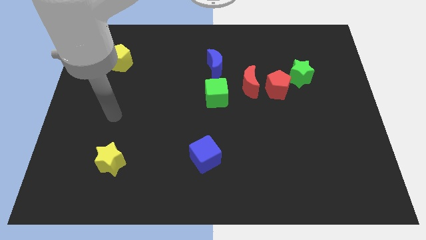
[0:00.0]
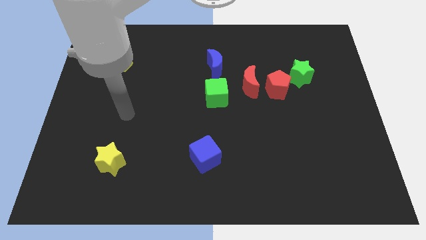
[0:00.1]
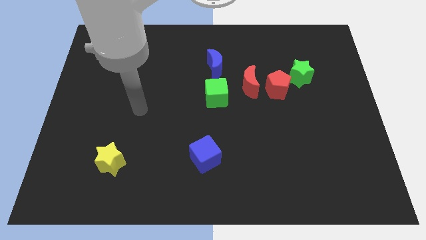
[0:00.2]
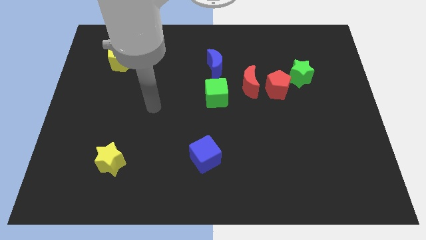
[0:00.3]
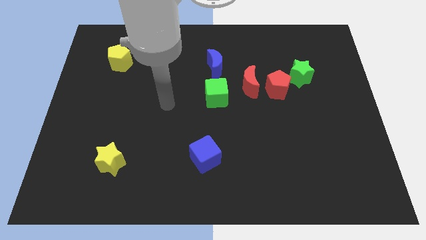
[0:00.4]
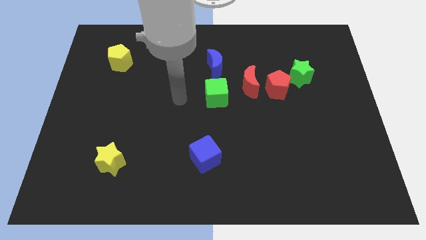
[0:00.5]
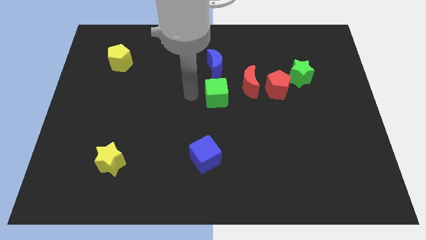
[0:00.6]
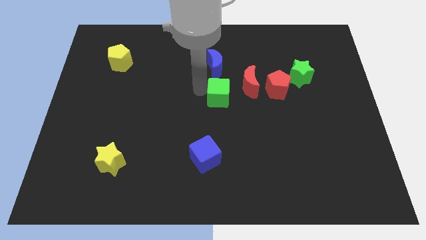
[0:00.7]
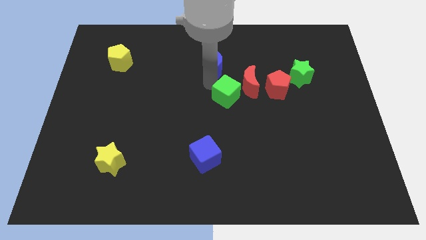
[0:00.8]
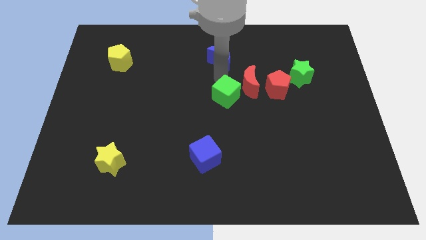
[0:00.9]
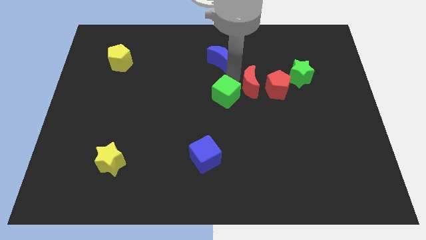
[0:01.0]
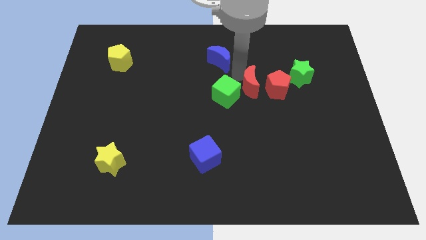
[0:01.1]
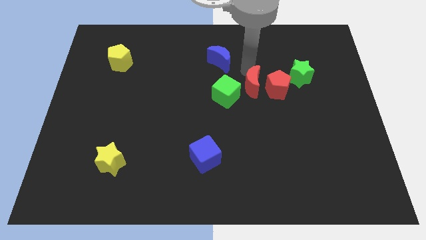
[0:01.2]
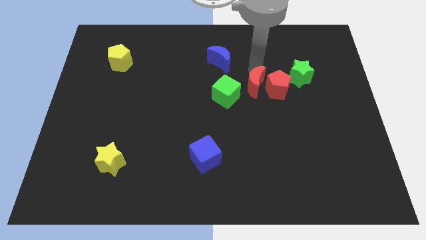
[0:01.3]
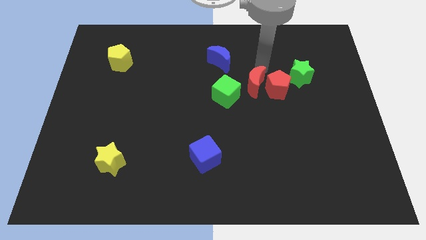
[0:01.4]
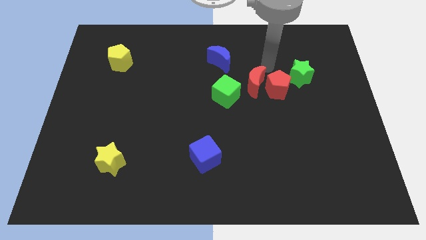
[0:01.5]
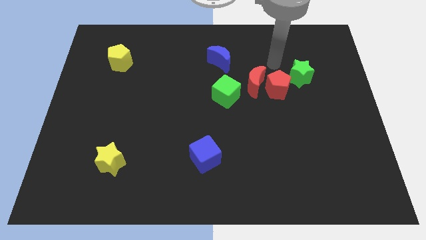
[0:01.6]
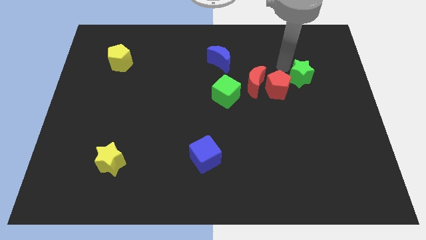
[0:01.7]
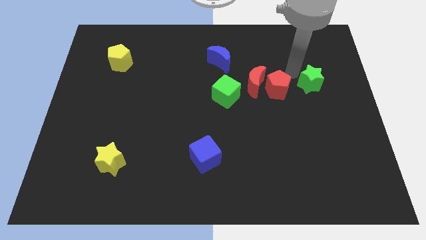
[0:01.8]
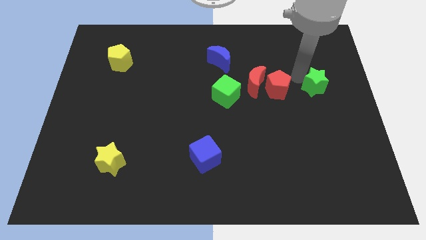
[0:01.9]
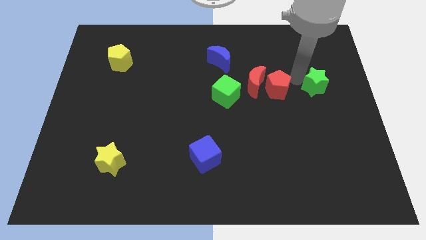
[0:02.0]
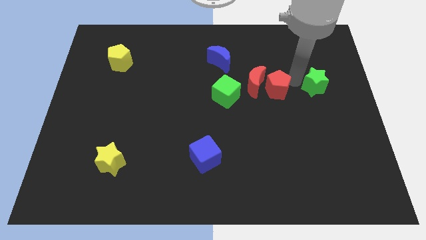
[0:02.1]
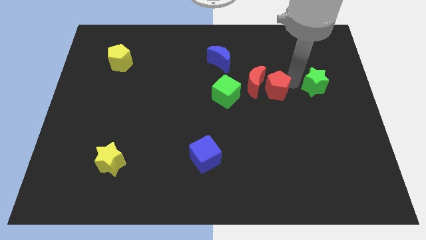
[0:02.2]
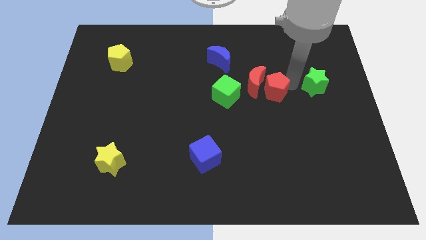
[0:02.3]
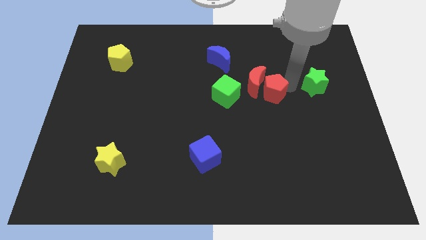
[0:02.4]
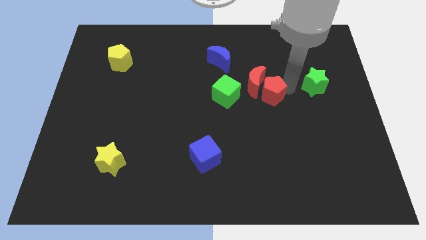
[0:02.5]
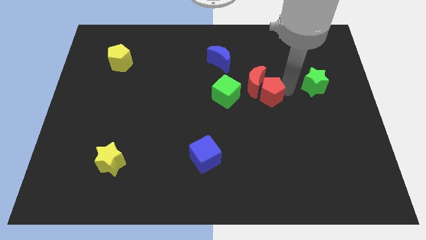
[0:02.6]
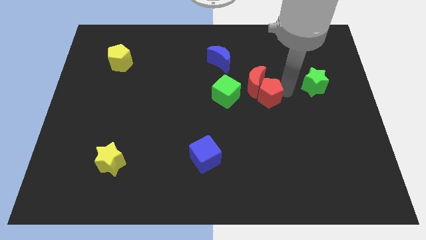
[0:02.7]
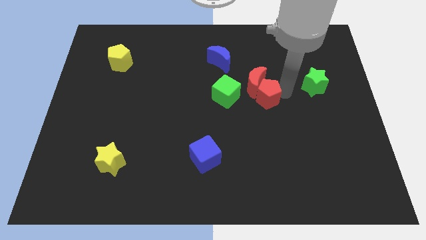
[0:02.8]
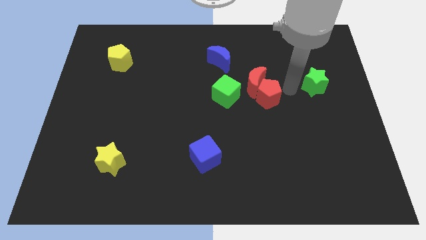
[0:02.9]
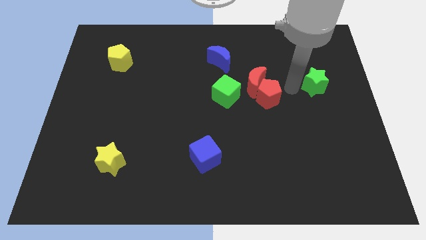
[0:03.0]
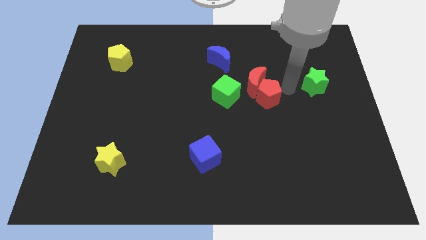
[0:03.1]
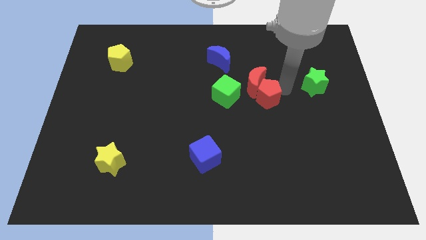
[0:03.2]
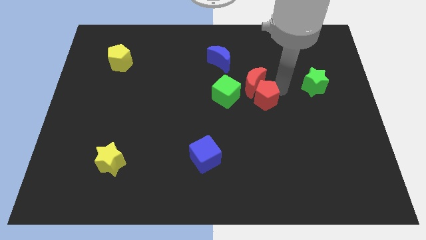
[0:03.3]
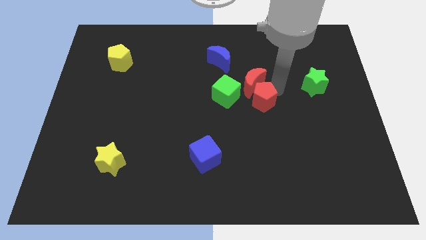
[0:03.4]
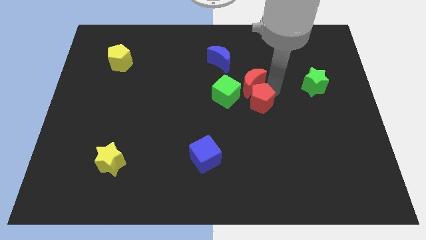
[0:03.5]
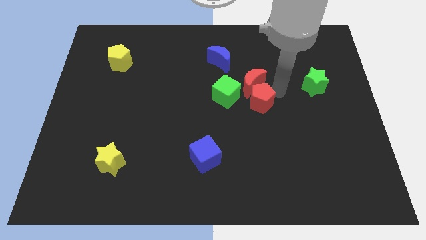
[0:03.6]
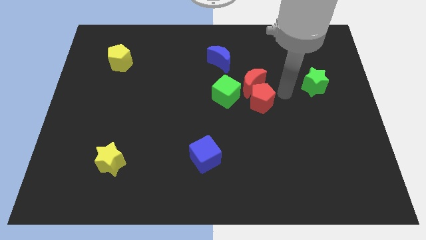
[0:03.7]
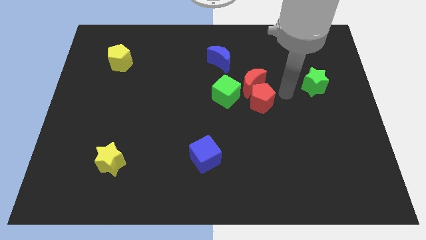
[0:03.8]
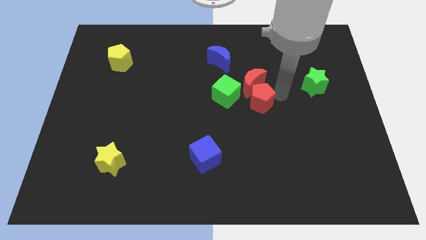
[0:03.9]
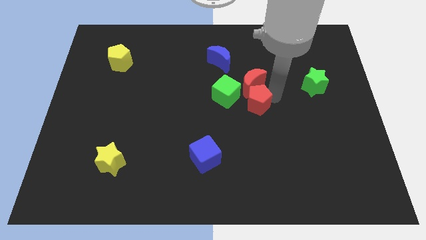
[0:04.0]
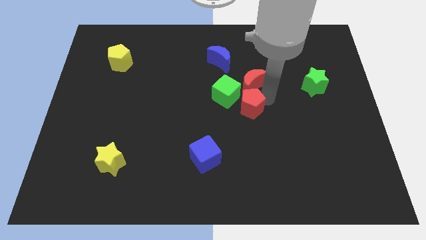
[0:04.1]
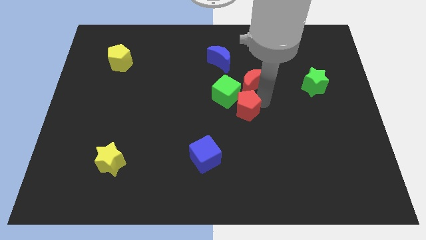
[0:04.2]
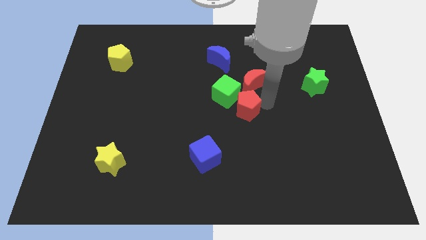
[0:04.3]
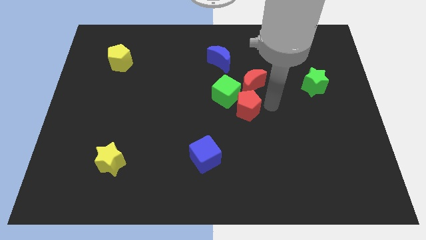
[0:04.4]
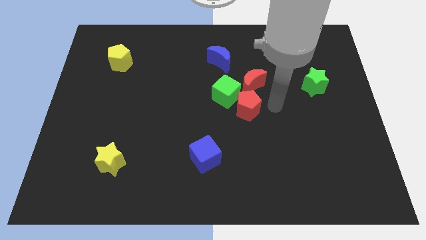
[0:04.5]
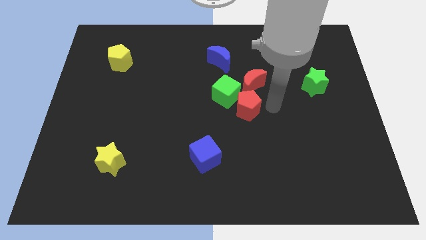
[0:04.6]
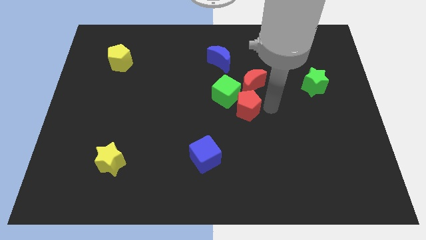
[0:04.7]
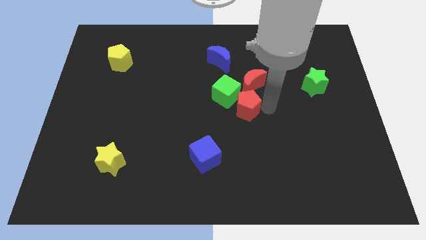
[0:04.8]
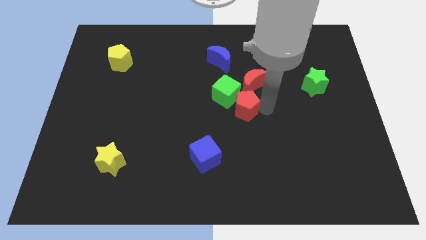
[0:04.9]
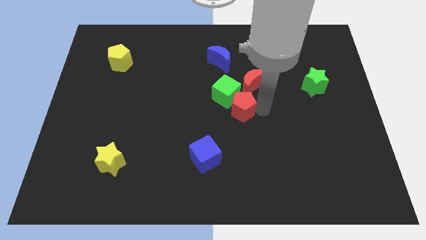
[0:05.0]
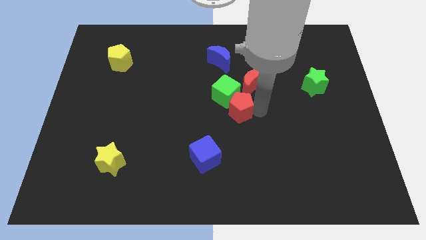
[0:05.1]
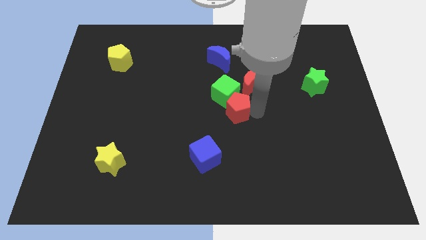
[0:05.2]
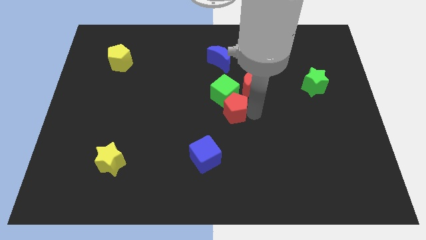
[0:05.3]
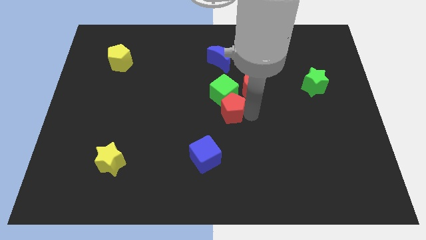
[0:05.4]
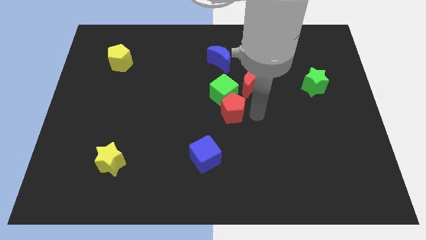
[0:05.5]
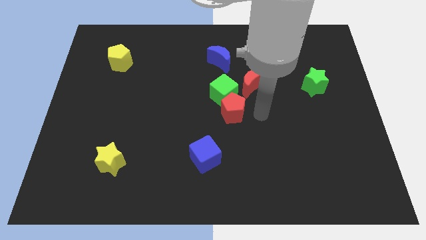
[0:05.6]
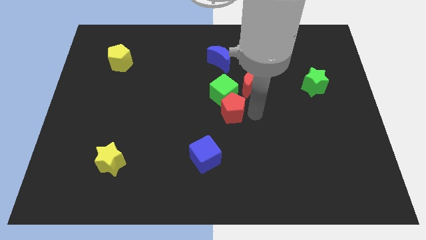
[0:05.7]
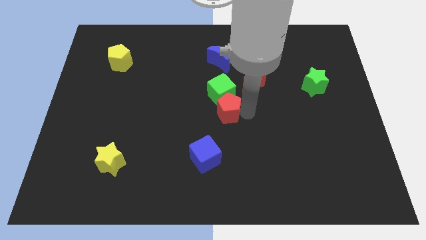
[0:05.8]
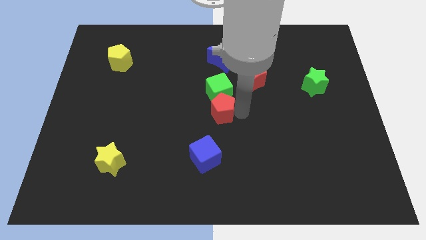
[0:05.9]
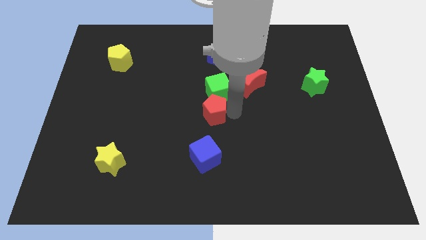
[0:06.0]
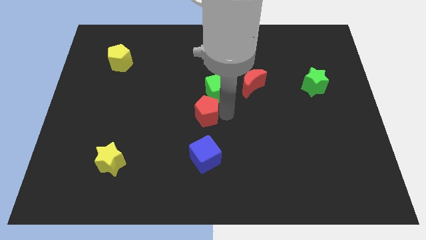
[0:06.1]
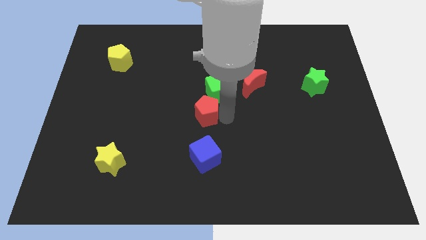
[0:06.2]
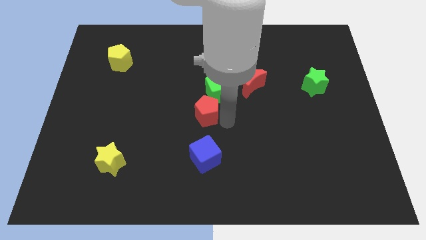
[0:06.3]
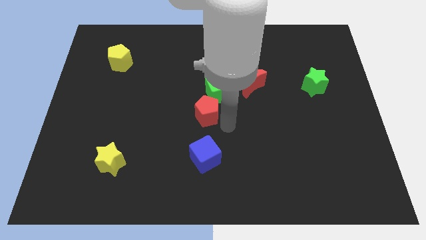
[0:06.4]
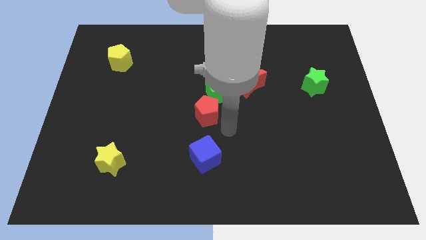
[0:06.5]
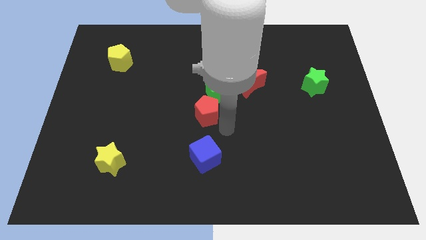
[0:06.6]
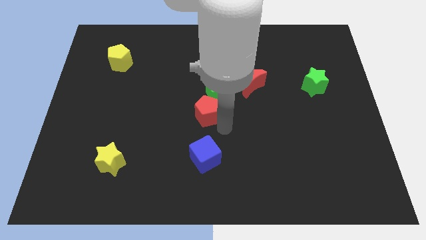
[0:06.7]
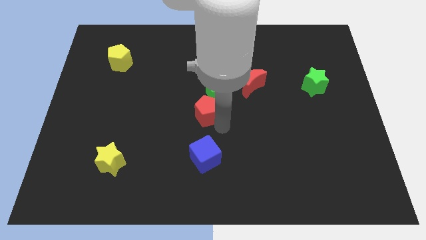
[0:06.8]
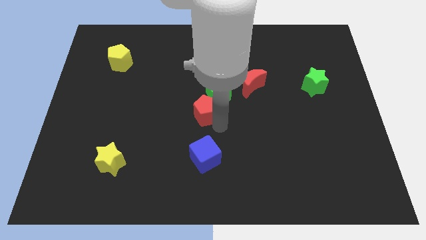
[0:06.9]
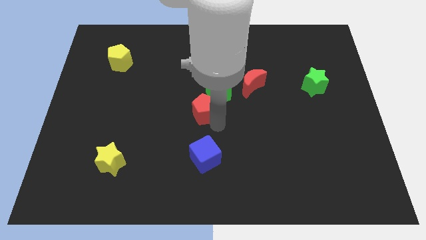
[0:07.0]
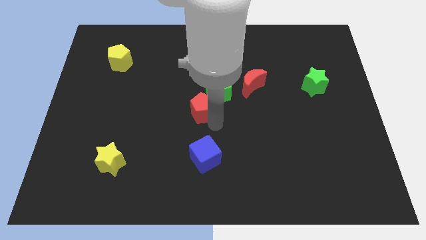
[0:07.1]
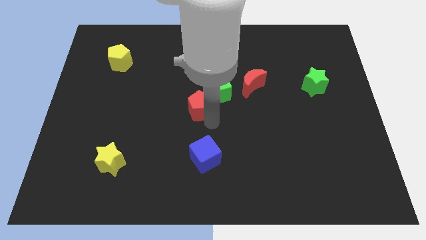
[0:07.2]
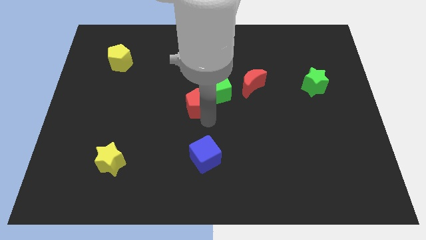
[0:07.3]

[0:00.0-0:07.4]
put the red pentagon left of the green cube
